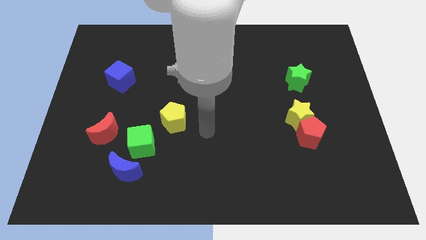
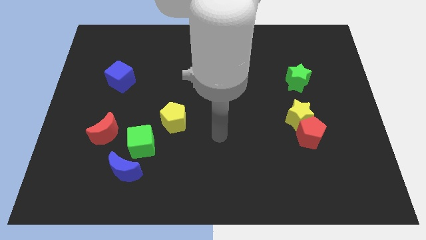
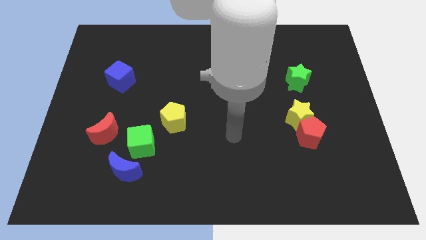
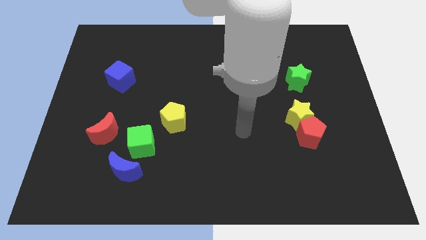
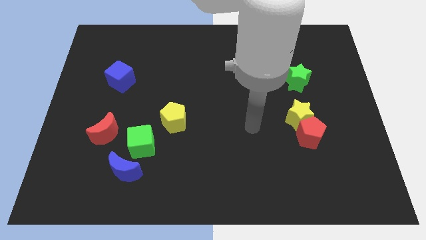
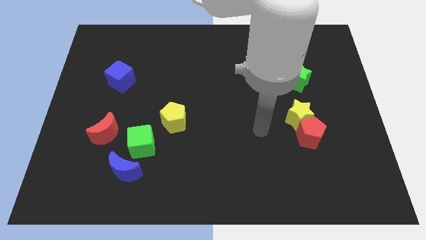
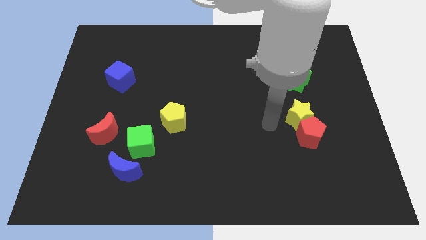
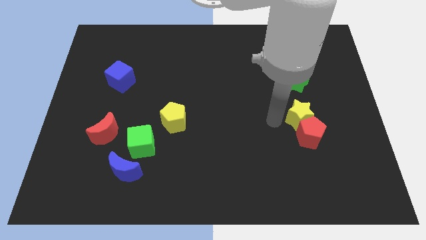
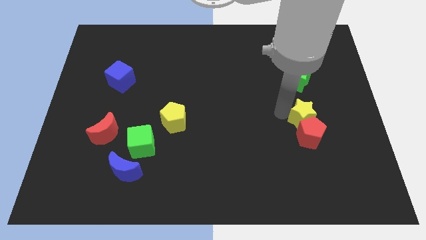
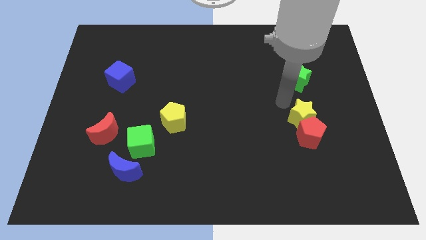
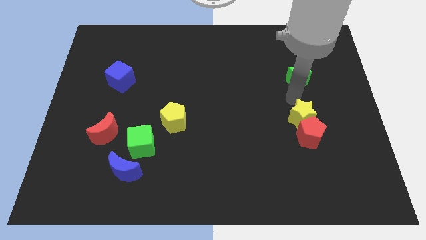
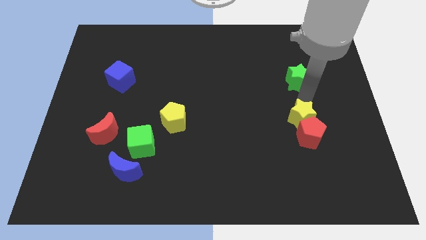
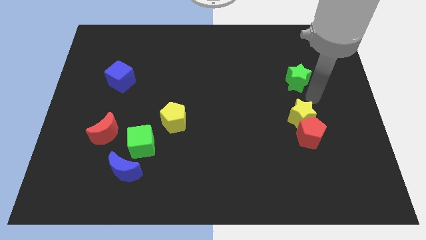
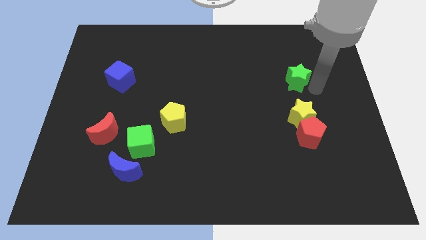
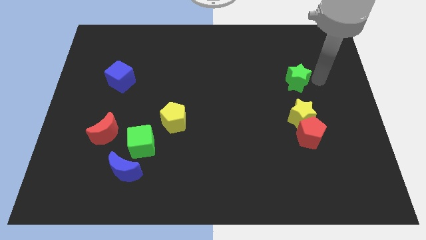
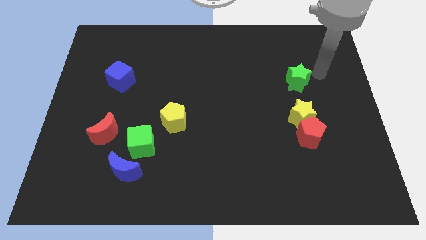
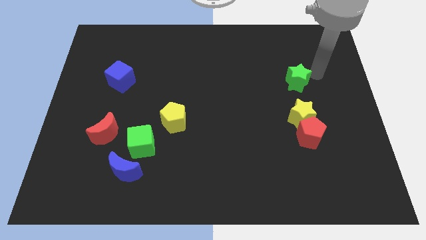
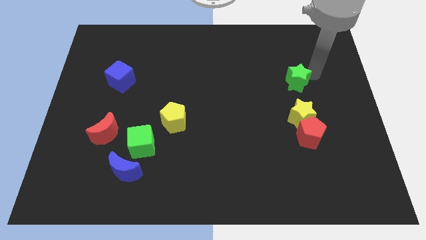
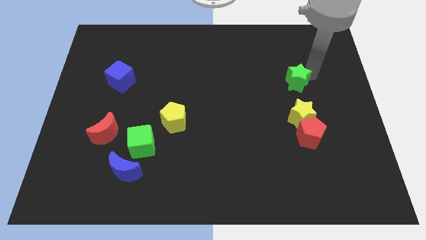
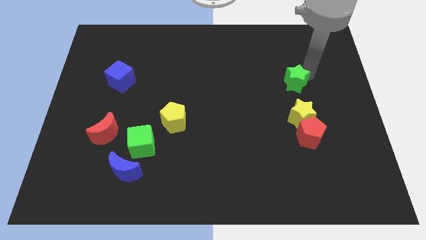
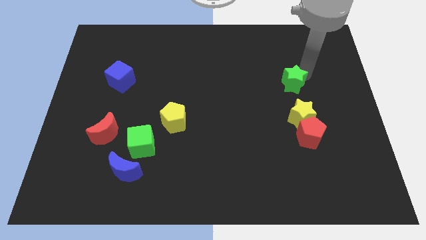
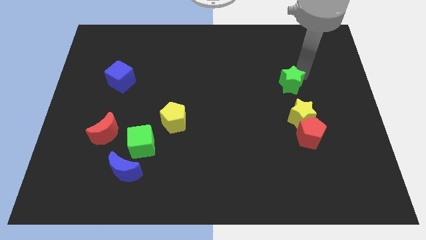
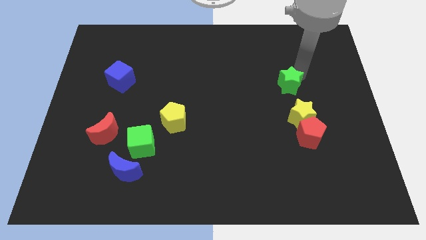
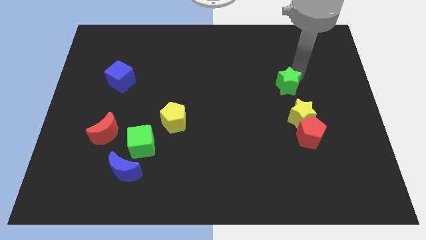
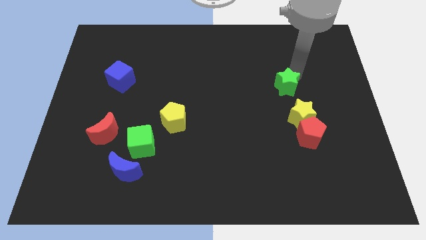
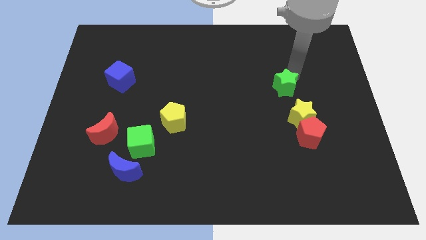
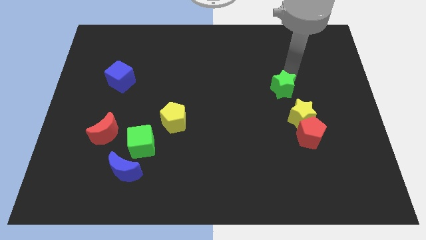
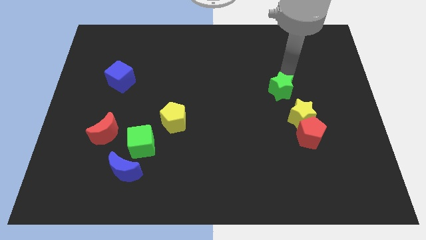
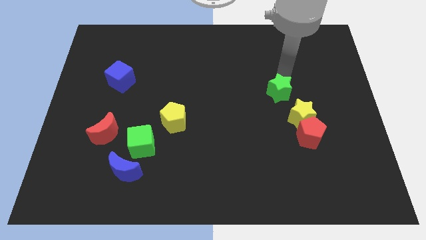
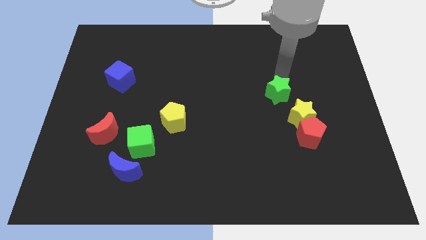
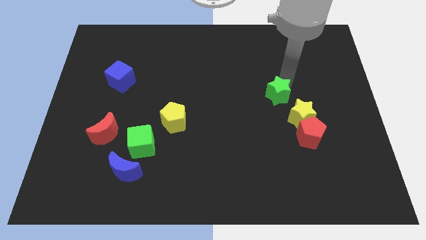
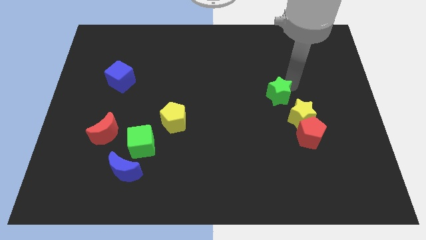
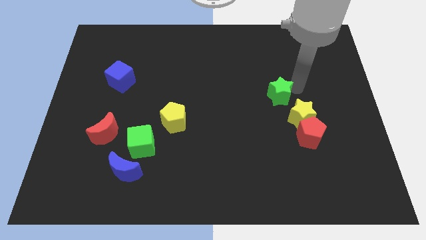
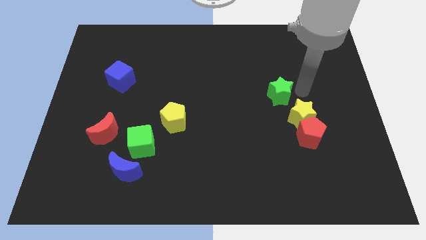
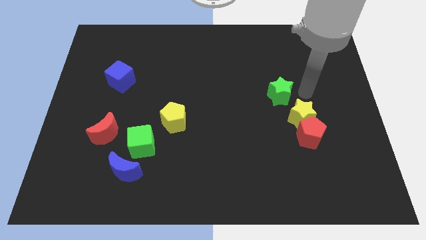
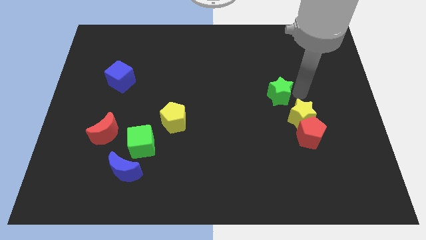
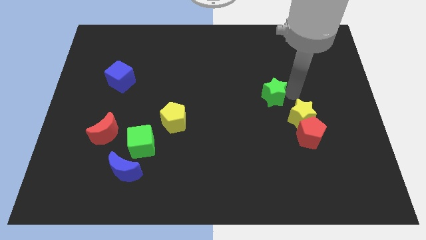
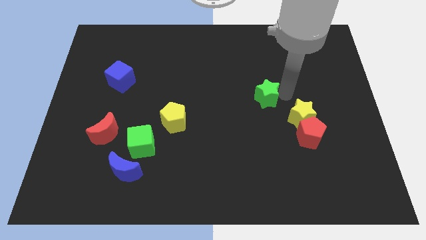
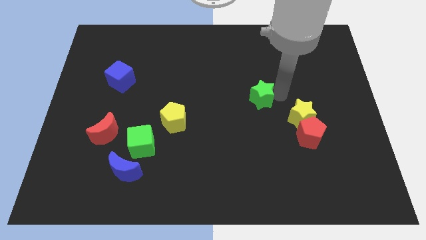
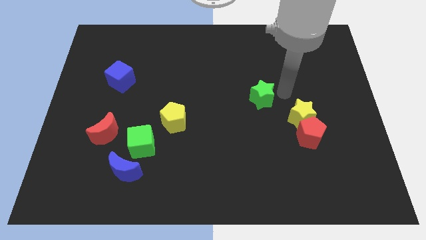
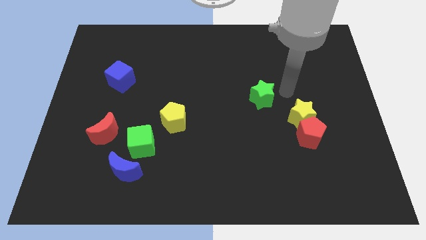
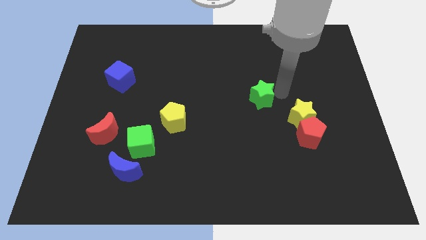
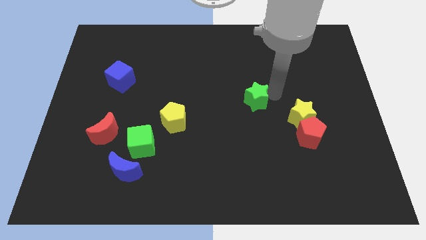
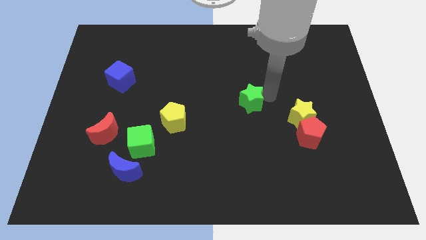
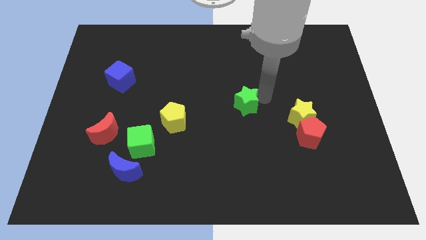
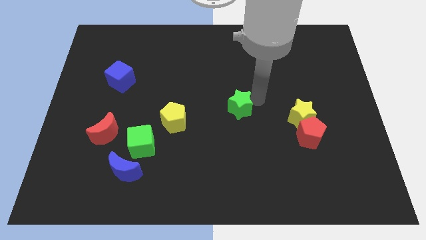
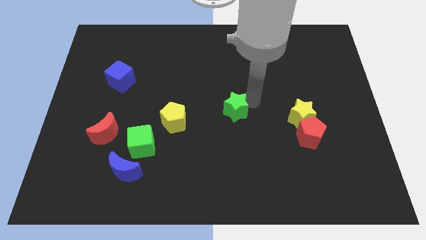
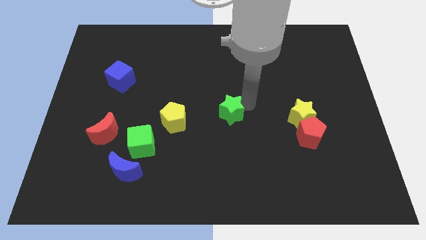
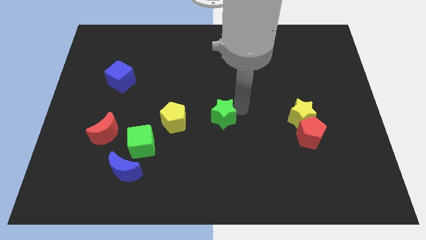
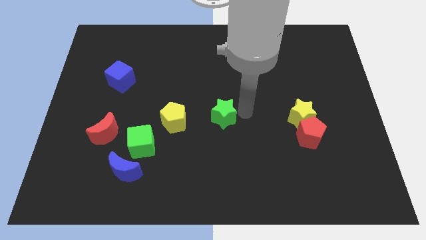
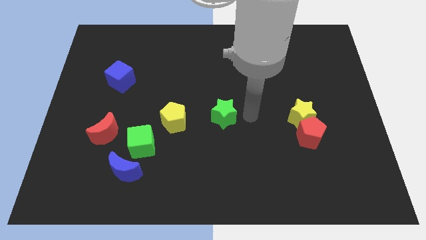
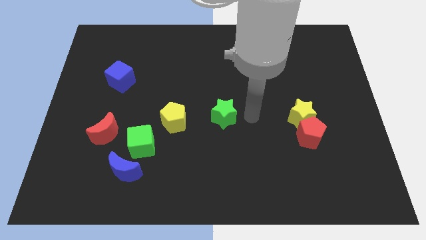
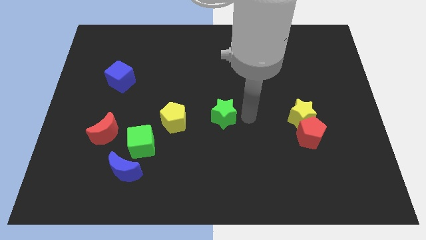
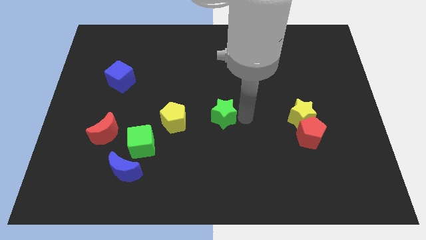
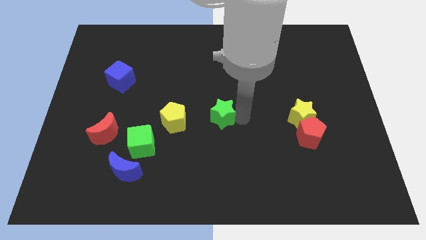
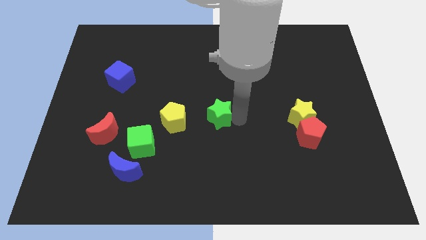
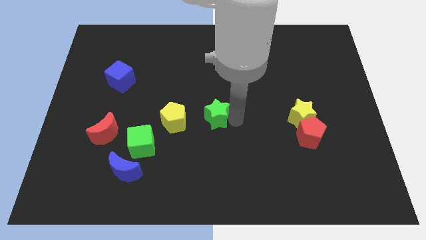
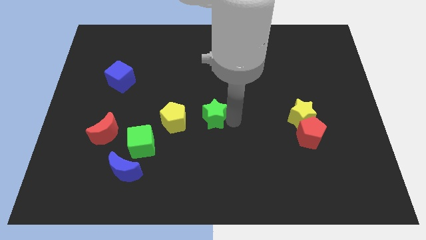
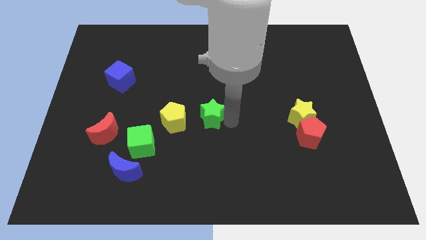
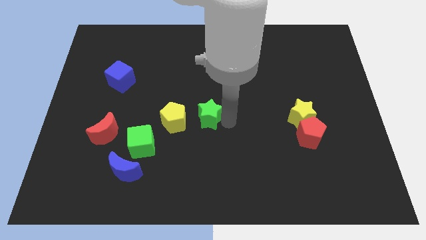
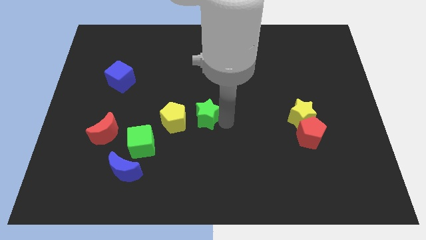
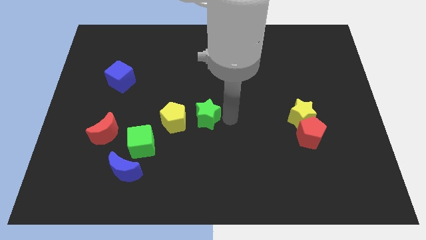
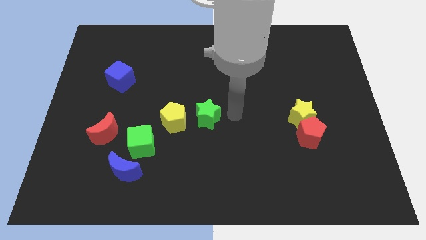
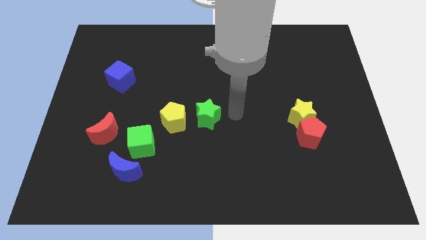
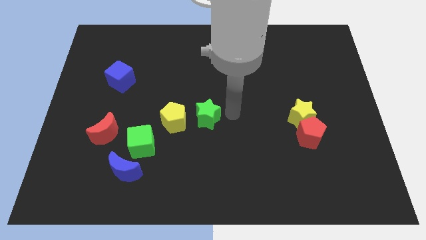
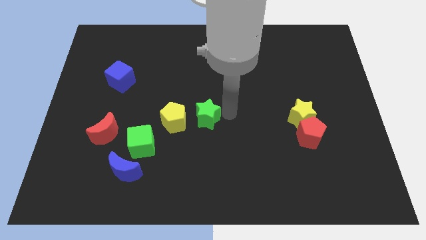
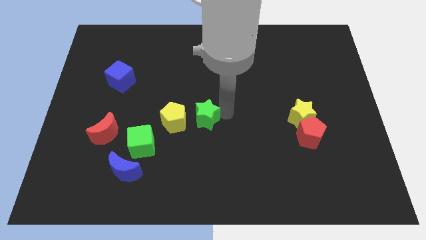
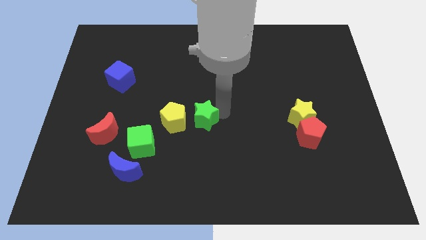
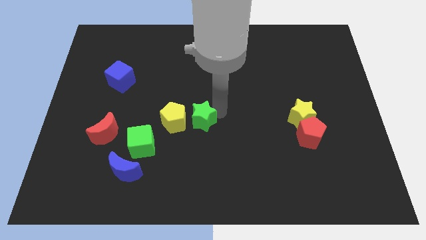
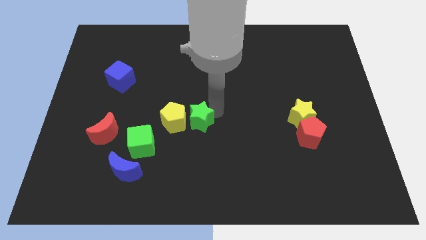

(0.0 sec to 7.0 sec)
put the green star next to the yellow pentagon

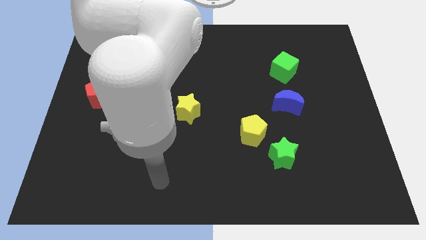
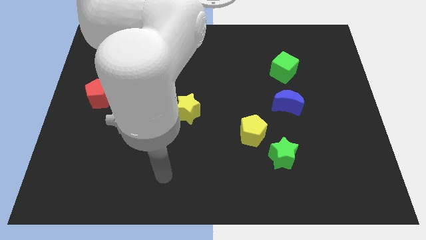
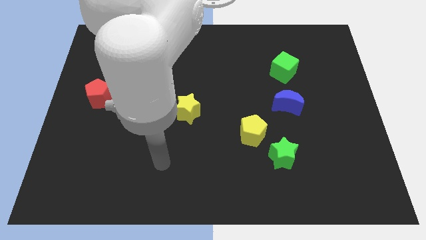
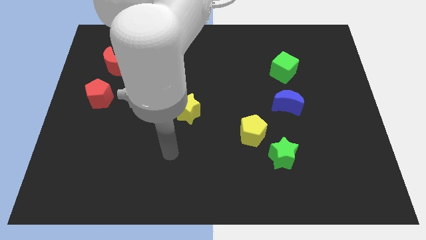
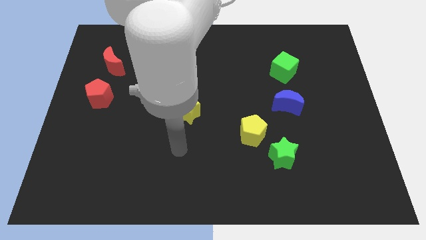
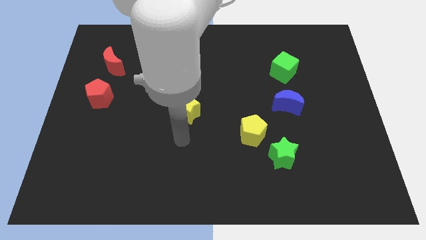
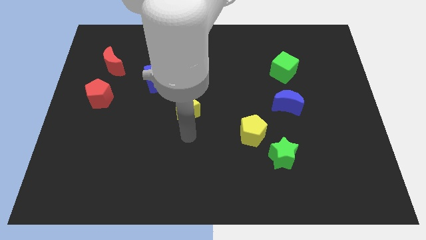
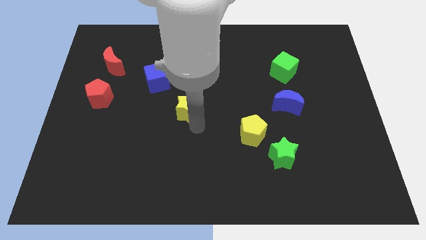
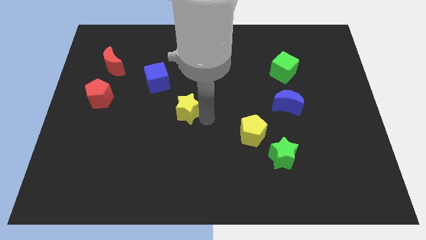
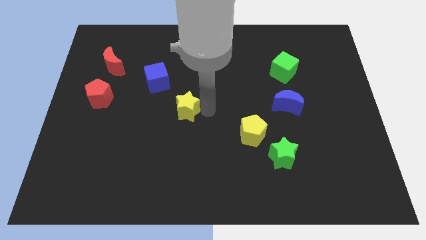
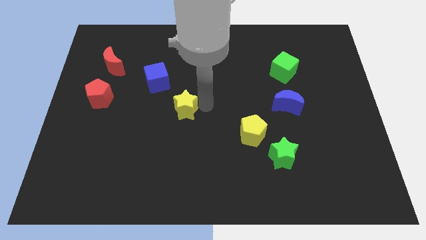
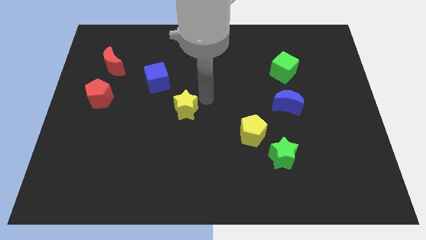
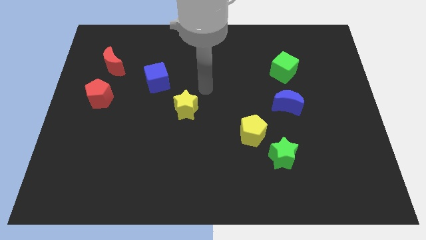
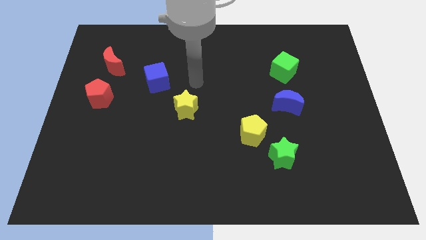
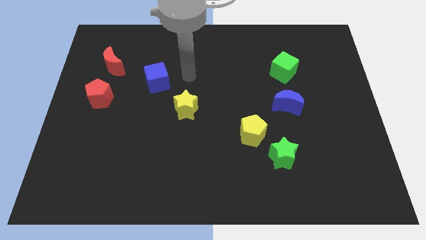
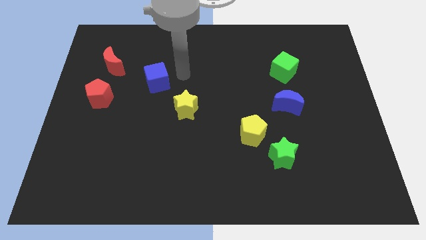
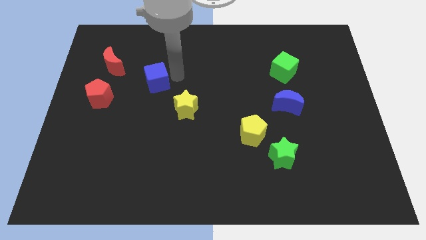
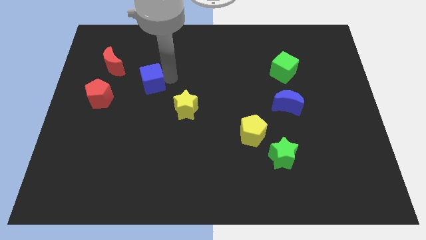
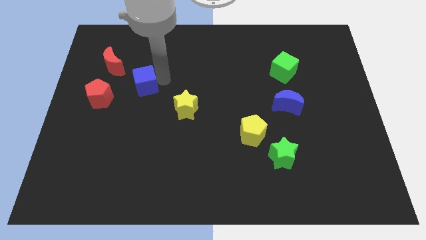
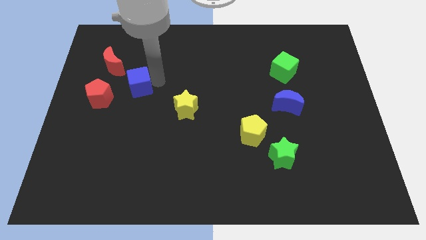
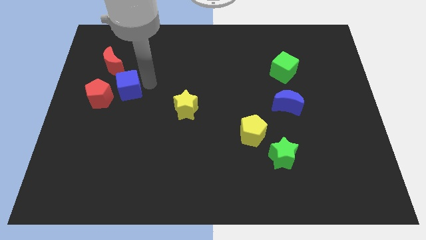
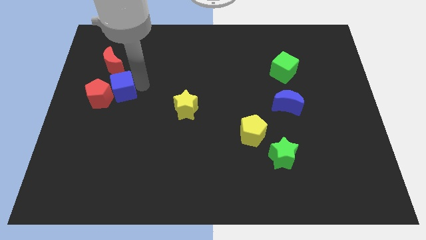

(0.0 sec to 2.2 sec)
put the blue cube close to the red pentagon
